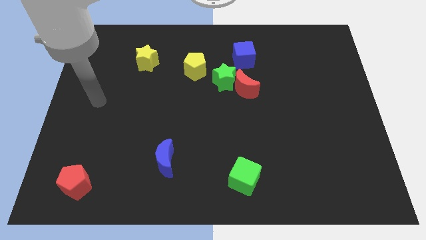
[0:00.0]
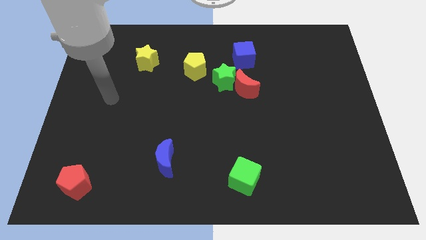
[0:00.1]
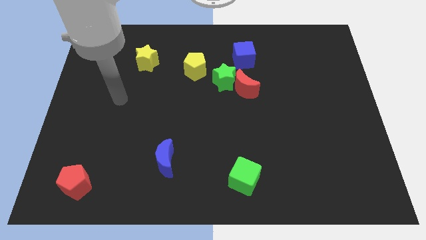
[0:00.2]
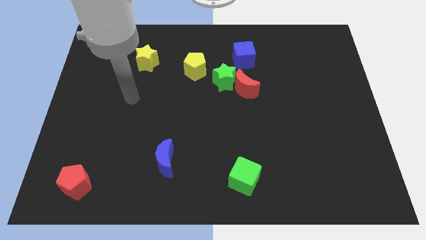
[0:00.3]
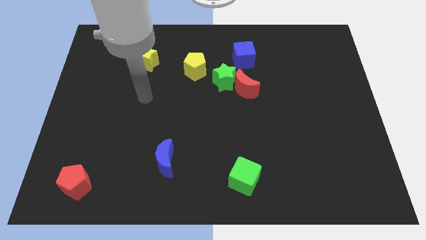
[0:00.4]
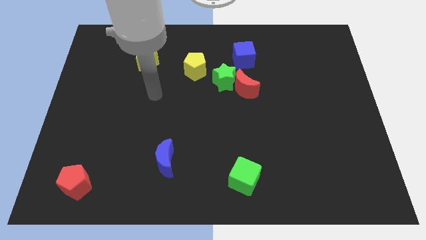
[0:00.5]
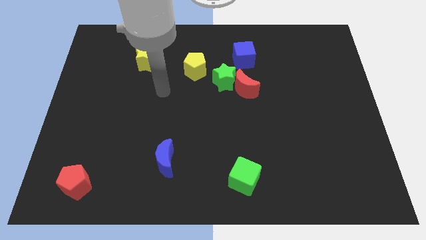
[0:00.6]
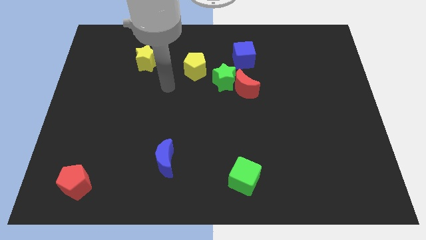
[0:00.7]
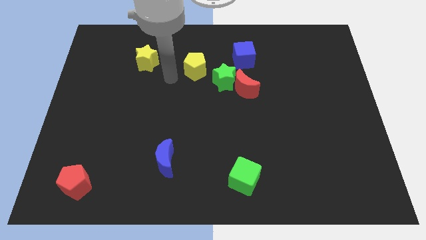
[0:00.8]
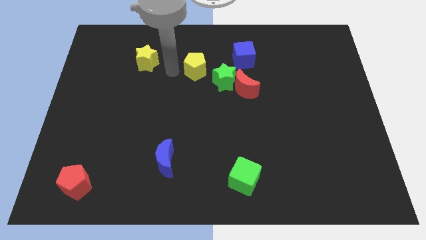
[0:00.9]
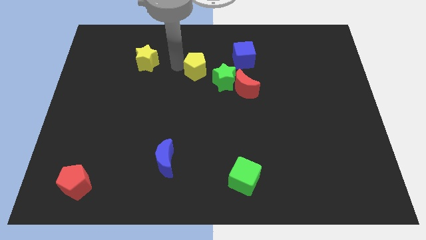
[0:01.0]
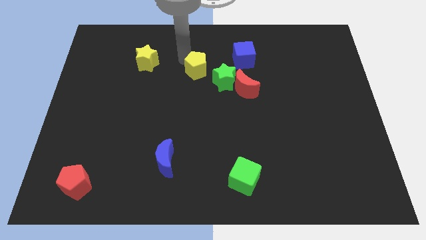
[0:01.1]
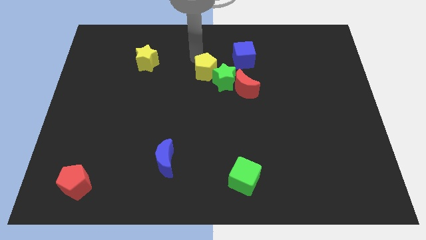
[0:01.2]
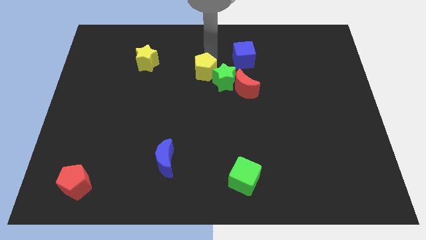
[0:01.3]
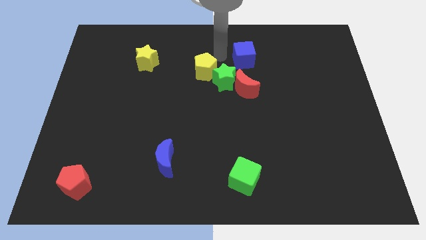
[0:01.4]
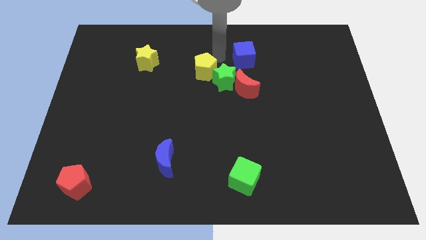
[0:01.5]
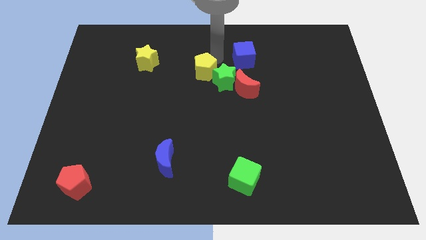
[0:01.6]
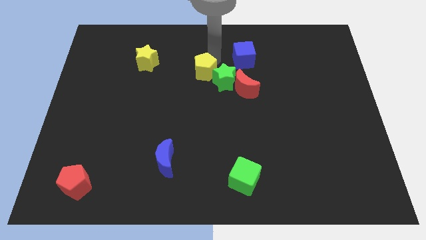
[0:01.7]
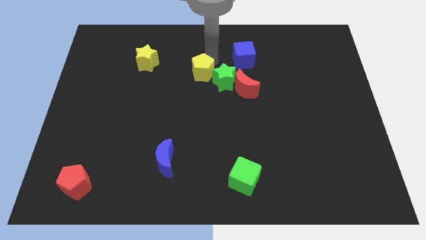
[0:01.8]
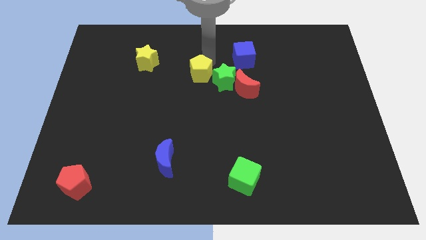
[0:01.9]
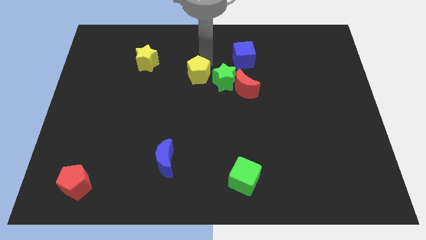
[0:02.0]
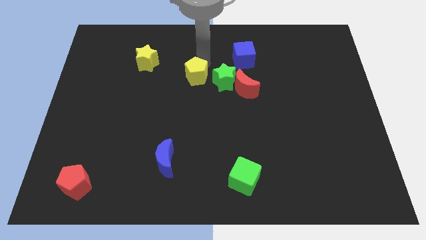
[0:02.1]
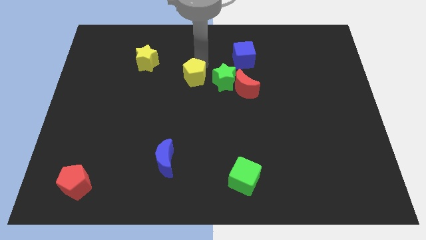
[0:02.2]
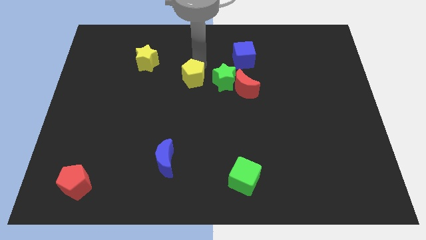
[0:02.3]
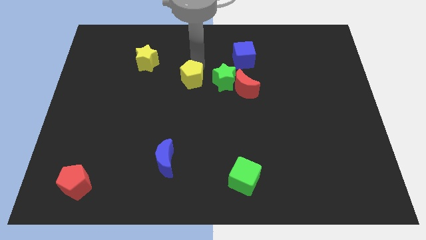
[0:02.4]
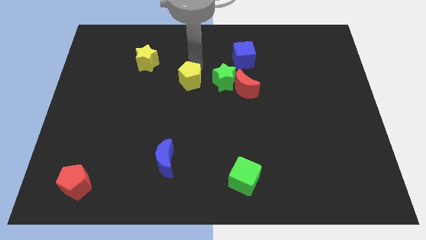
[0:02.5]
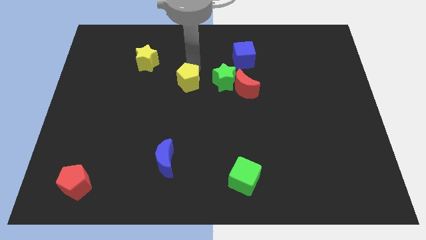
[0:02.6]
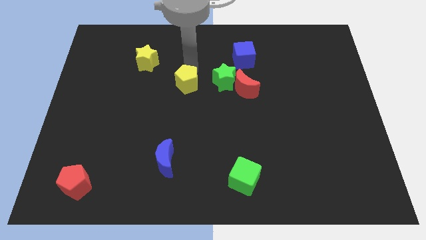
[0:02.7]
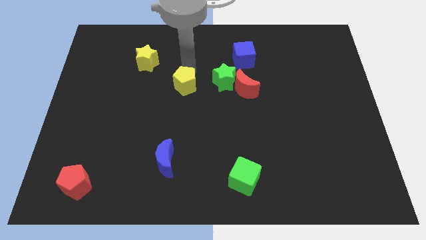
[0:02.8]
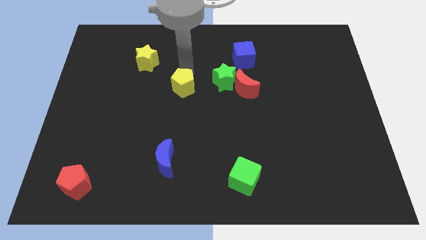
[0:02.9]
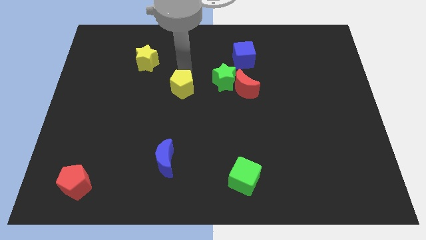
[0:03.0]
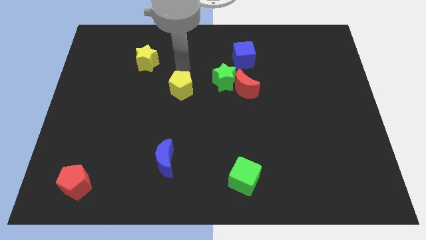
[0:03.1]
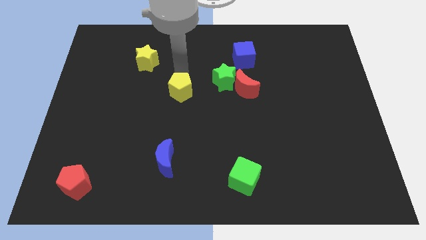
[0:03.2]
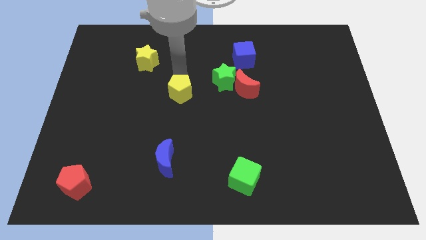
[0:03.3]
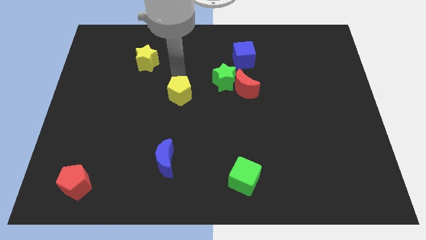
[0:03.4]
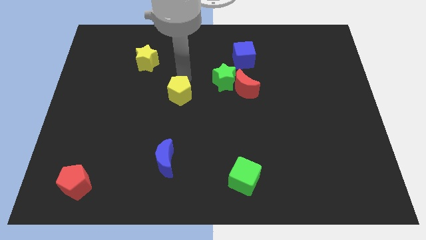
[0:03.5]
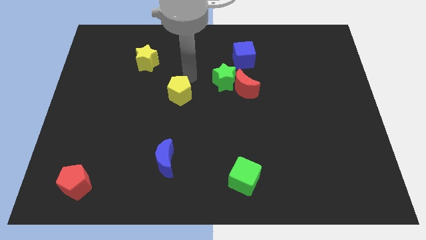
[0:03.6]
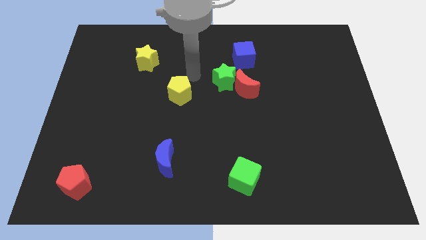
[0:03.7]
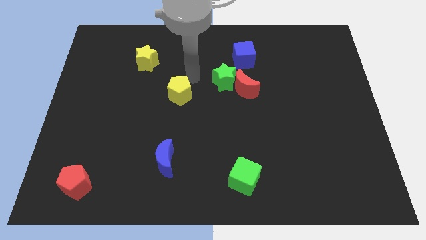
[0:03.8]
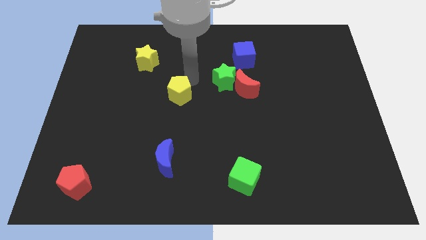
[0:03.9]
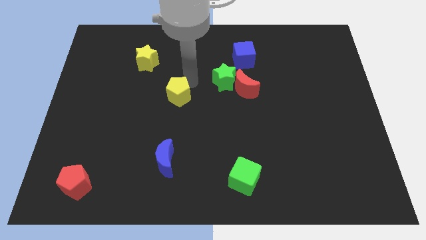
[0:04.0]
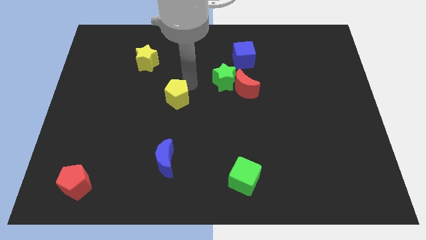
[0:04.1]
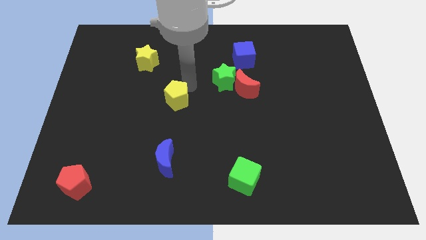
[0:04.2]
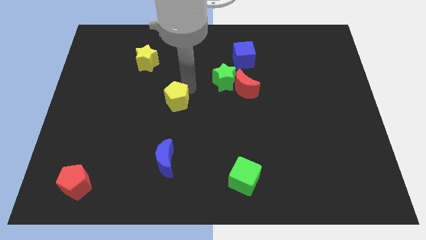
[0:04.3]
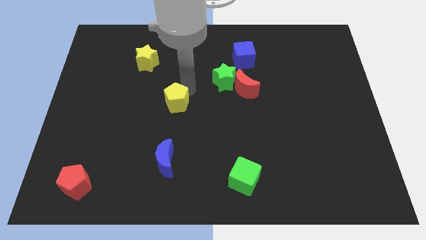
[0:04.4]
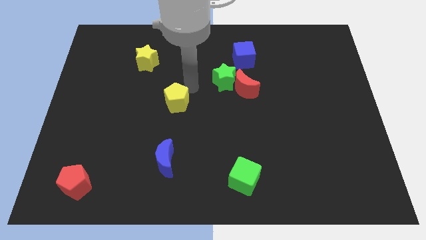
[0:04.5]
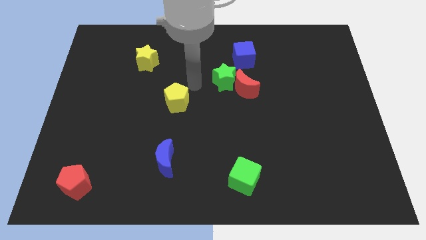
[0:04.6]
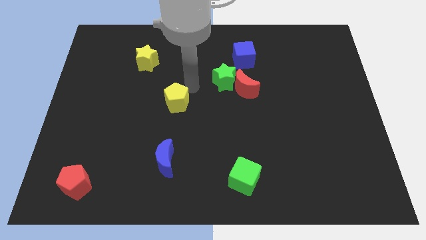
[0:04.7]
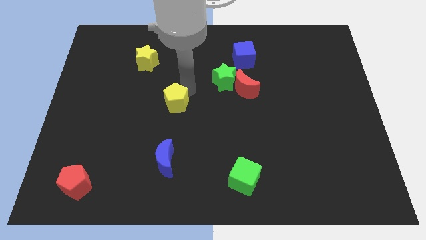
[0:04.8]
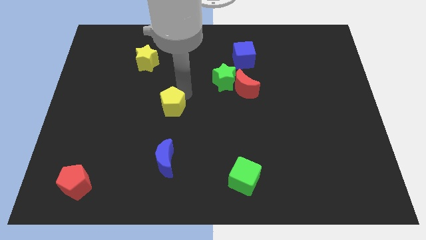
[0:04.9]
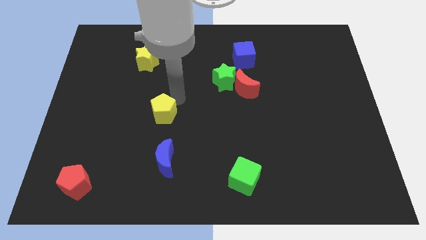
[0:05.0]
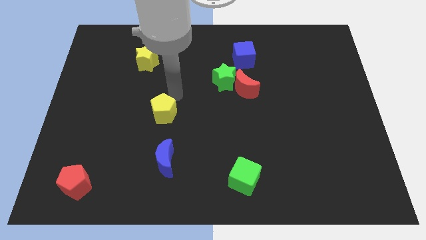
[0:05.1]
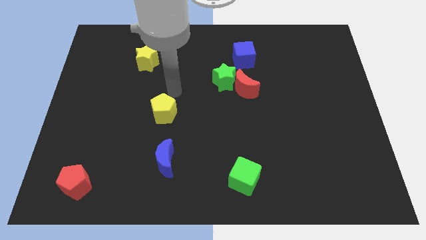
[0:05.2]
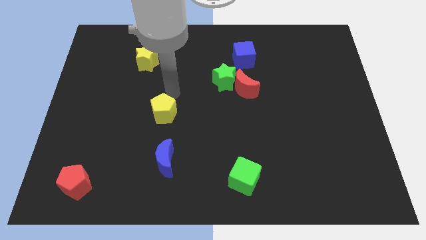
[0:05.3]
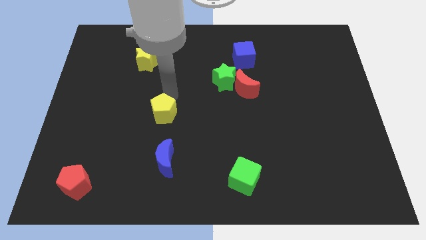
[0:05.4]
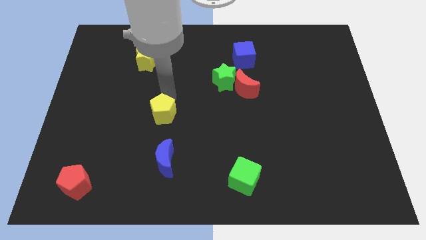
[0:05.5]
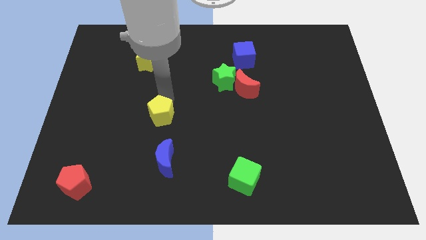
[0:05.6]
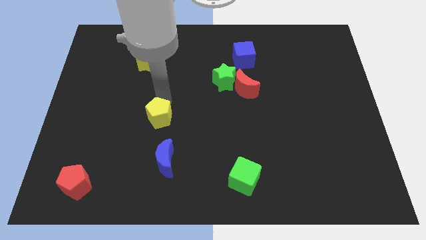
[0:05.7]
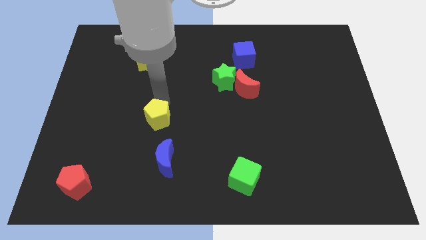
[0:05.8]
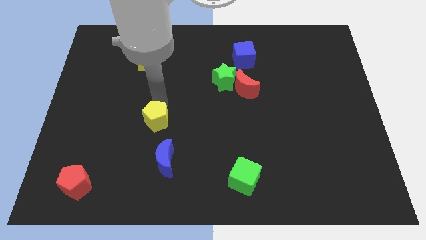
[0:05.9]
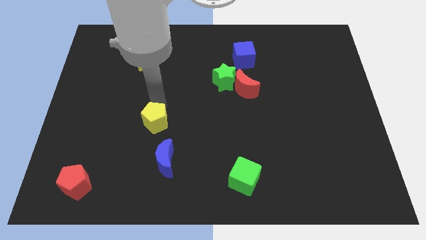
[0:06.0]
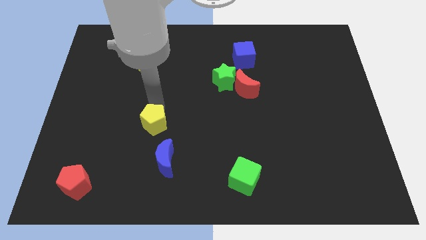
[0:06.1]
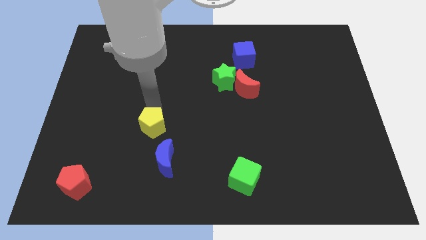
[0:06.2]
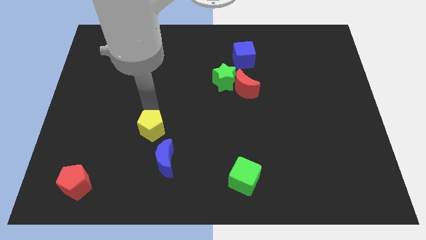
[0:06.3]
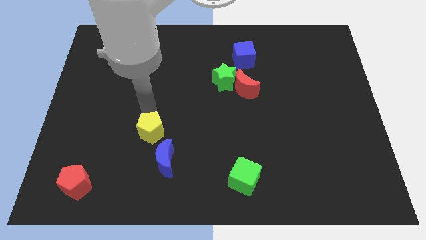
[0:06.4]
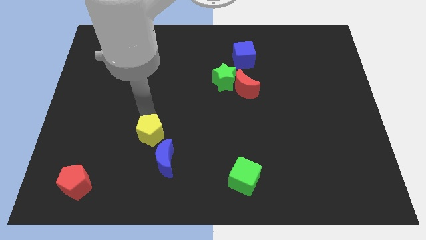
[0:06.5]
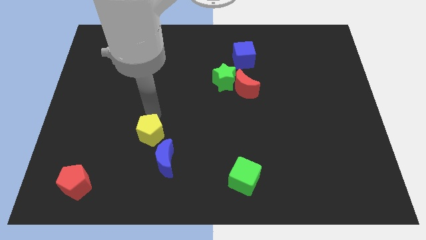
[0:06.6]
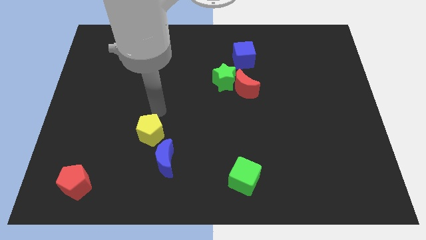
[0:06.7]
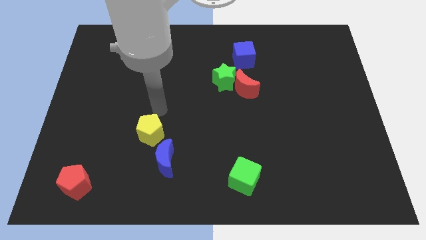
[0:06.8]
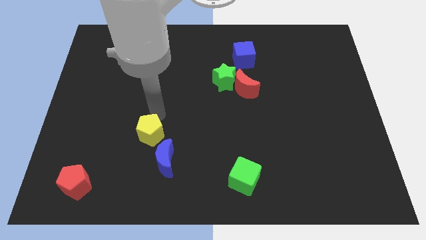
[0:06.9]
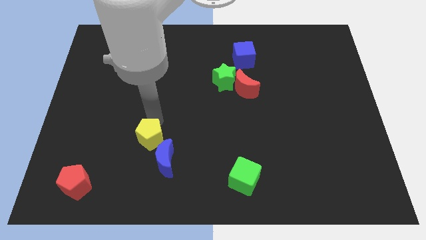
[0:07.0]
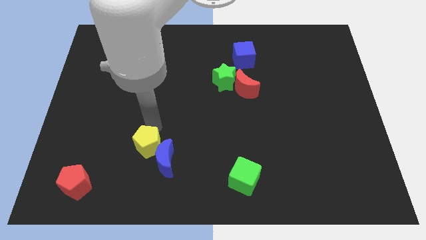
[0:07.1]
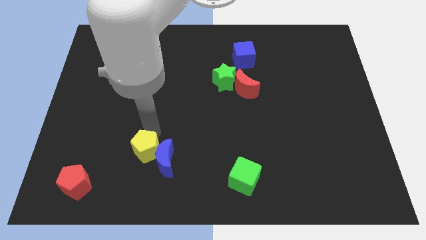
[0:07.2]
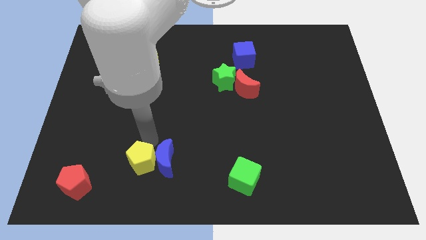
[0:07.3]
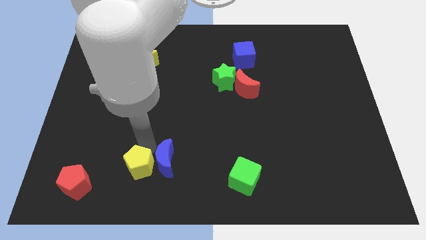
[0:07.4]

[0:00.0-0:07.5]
move the yellow pentagon right of the red pentagon

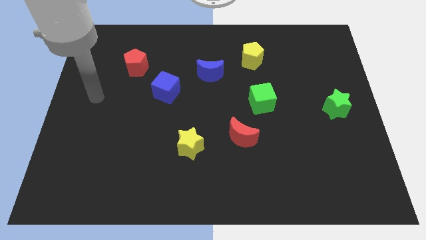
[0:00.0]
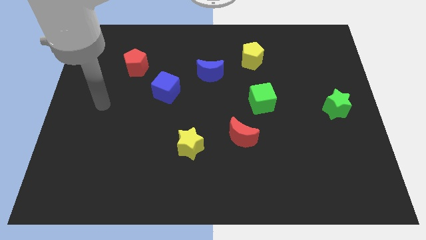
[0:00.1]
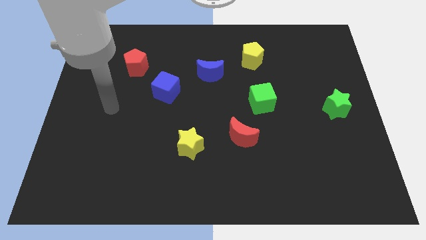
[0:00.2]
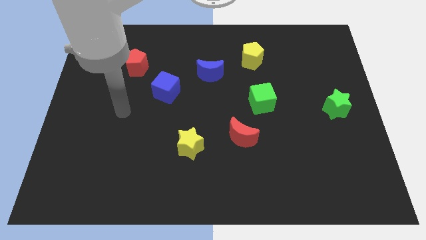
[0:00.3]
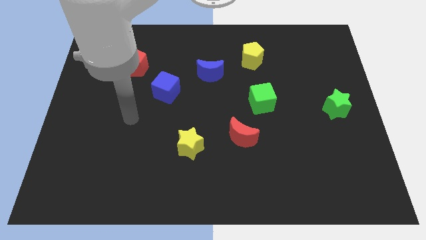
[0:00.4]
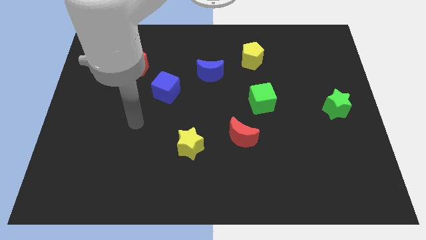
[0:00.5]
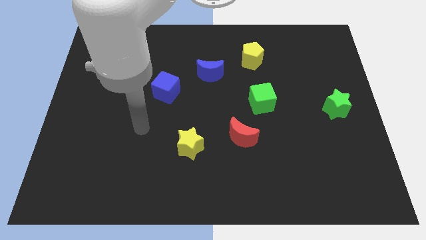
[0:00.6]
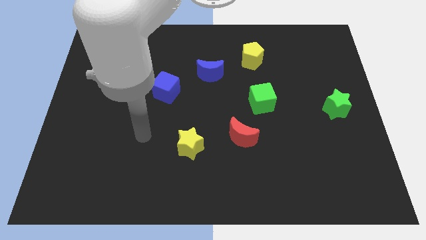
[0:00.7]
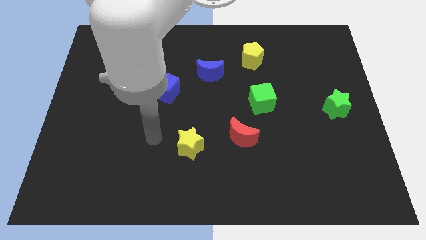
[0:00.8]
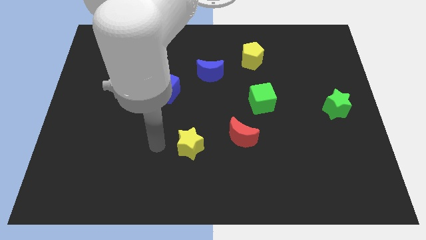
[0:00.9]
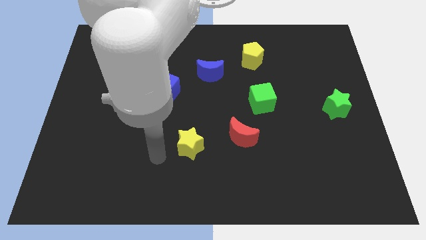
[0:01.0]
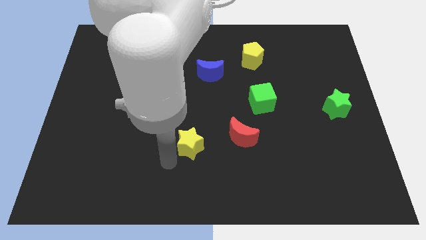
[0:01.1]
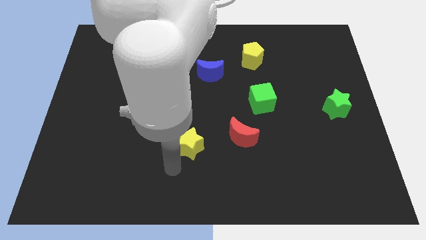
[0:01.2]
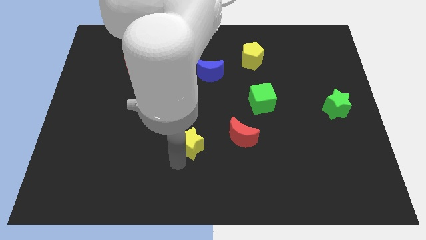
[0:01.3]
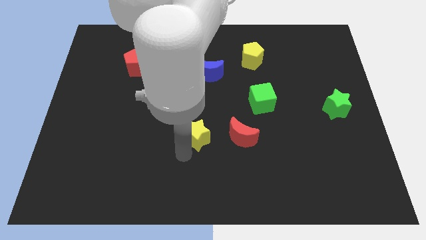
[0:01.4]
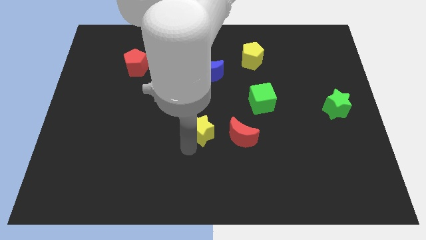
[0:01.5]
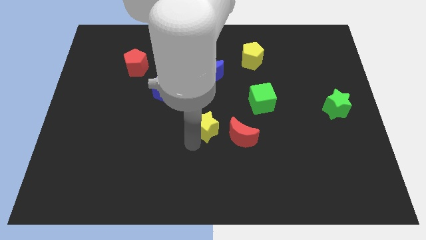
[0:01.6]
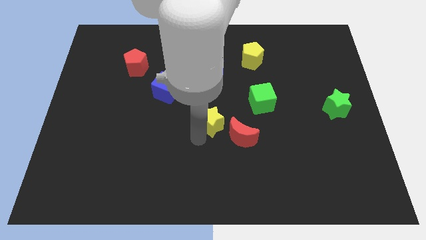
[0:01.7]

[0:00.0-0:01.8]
put the yellow star to the bottom of the blue moon
